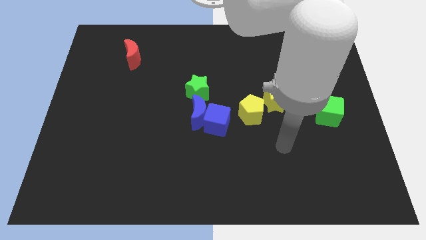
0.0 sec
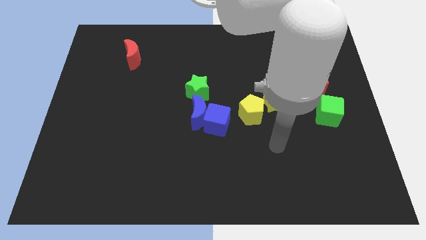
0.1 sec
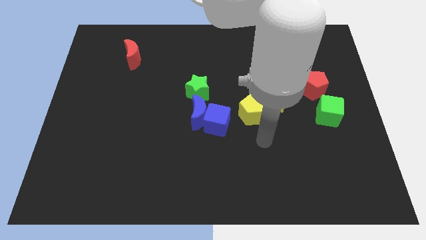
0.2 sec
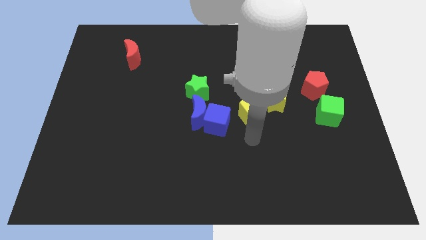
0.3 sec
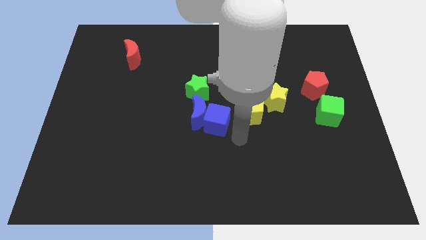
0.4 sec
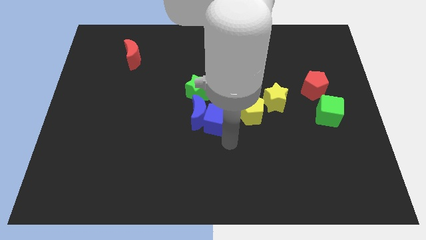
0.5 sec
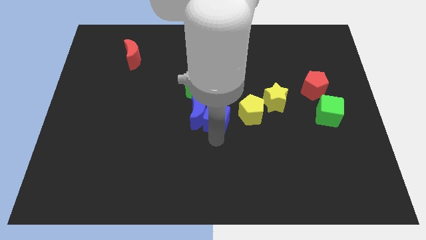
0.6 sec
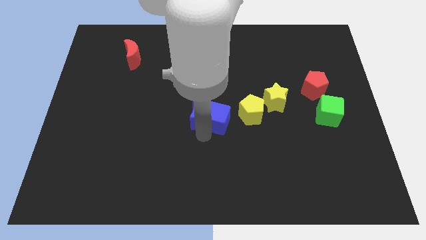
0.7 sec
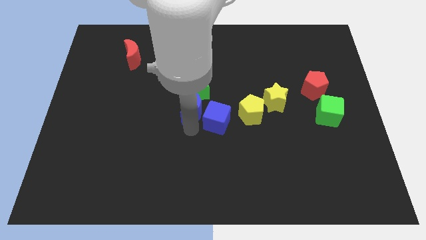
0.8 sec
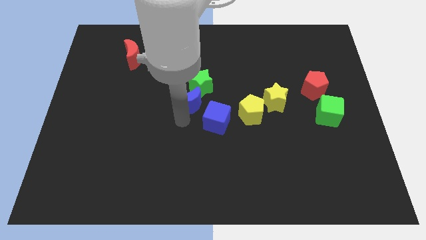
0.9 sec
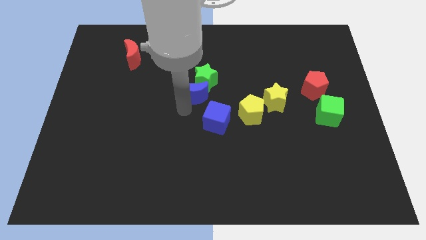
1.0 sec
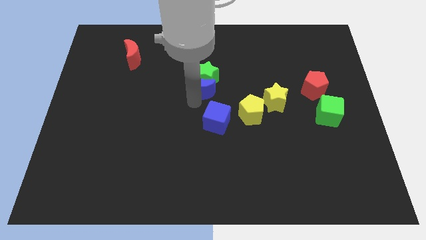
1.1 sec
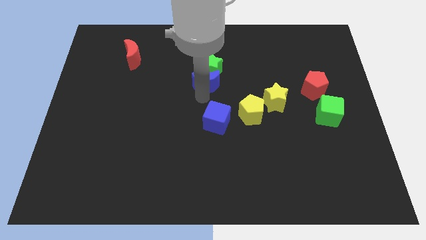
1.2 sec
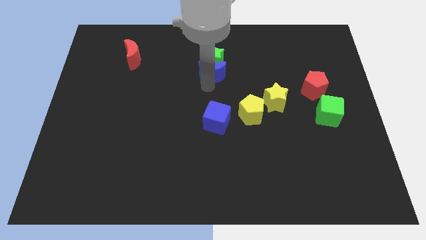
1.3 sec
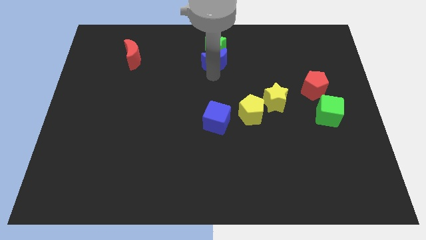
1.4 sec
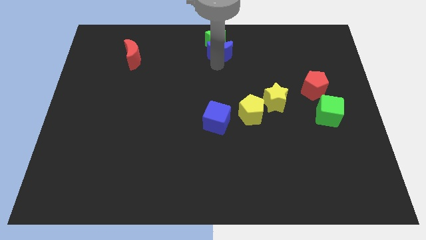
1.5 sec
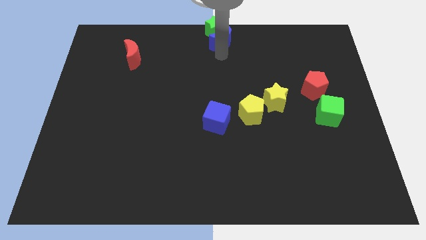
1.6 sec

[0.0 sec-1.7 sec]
move the blue moon away from the blue cube and green star

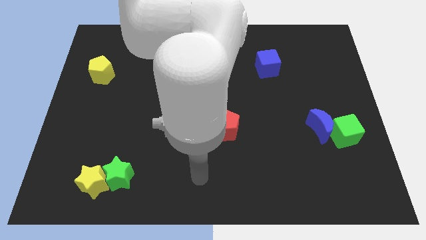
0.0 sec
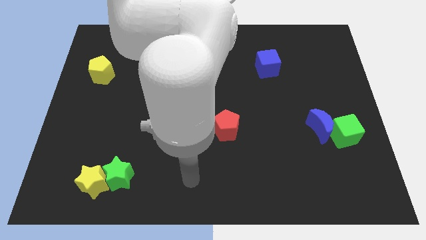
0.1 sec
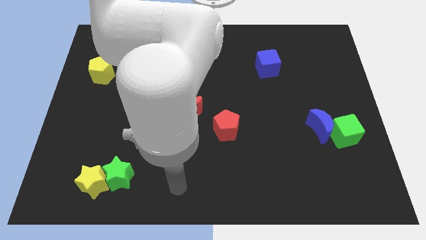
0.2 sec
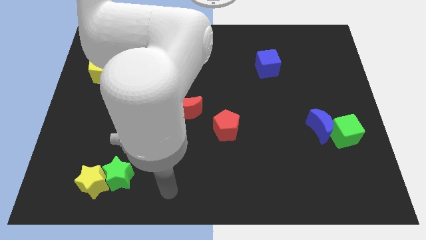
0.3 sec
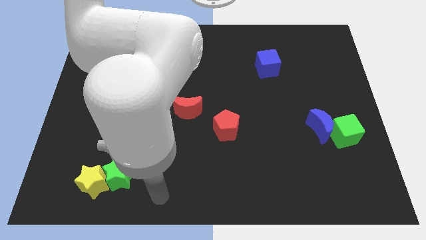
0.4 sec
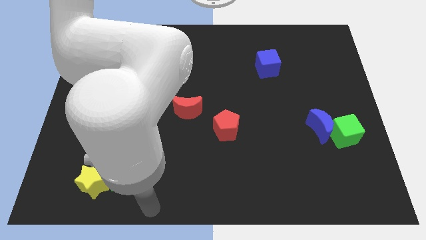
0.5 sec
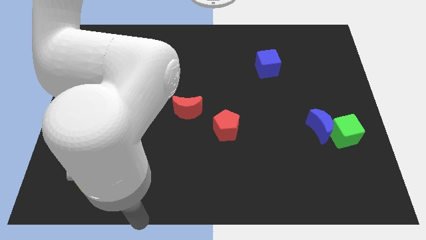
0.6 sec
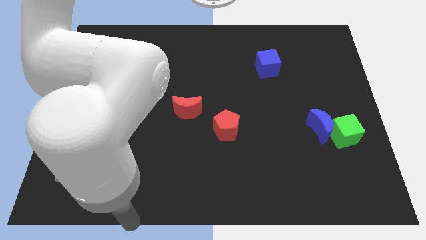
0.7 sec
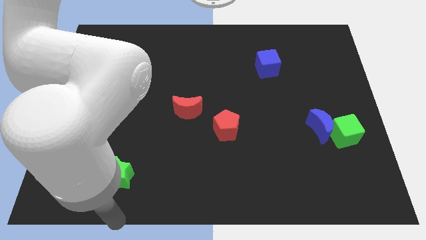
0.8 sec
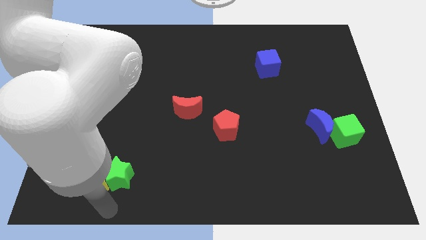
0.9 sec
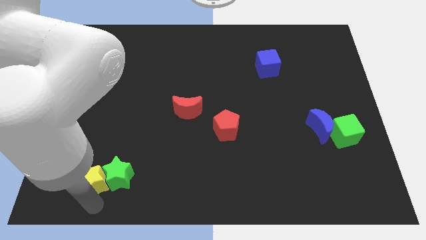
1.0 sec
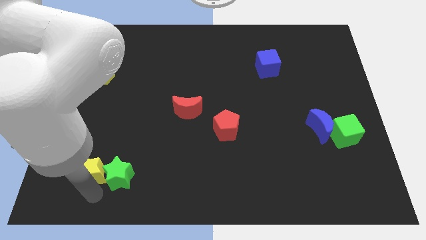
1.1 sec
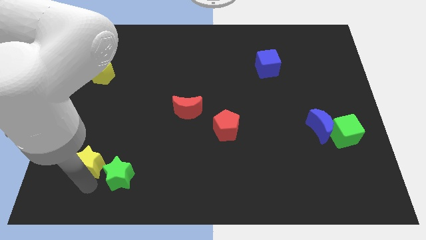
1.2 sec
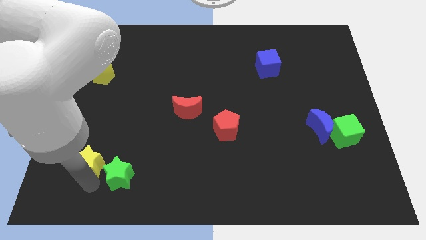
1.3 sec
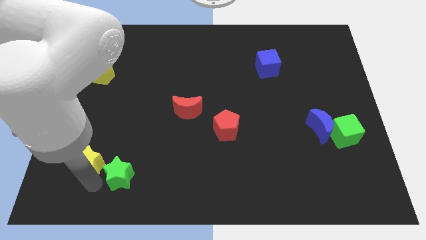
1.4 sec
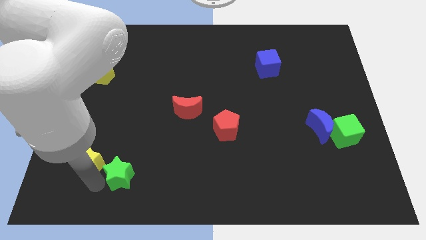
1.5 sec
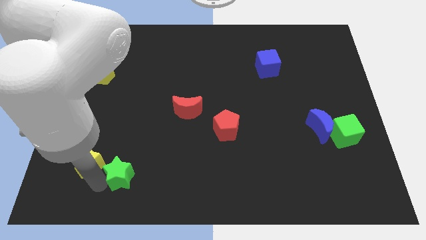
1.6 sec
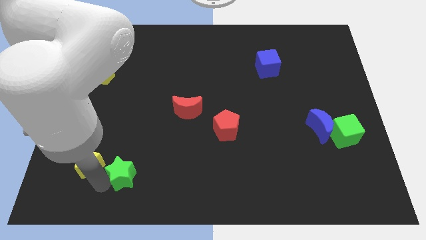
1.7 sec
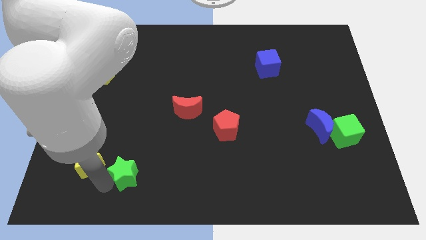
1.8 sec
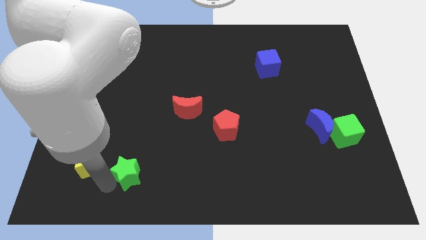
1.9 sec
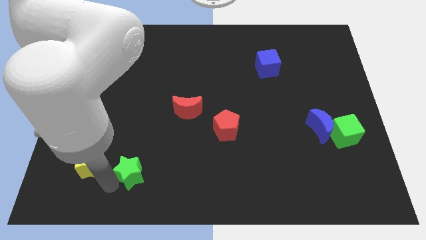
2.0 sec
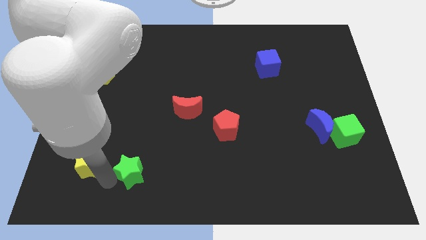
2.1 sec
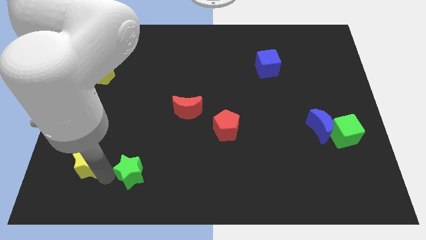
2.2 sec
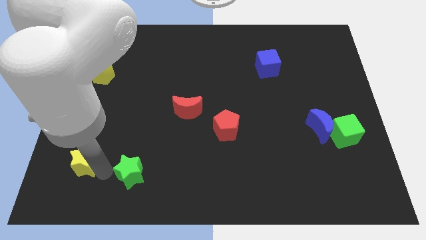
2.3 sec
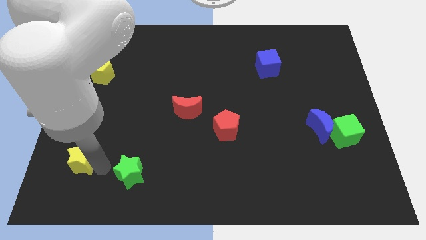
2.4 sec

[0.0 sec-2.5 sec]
move the green star away from the yellow star

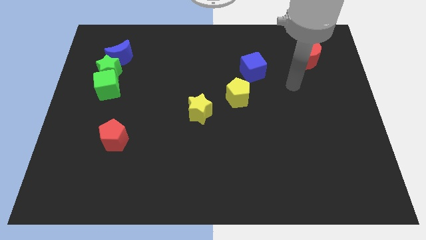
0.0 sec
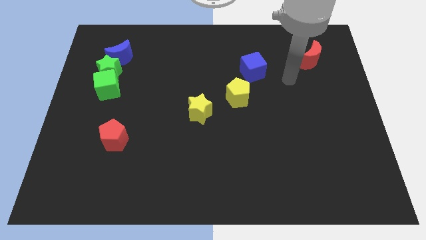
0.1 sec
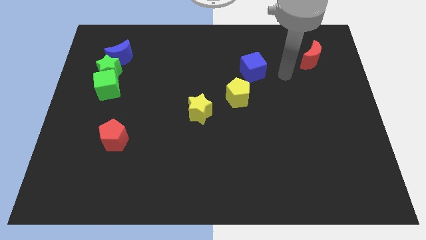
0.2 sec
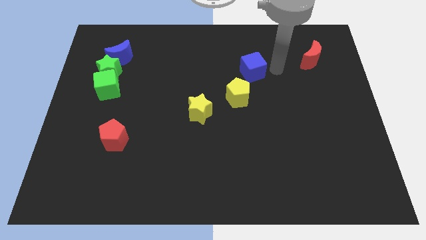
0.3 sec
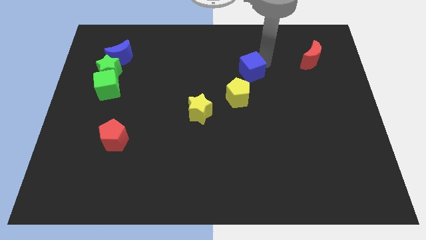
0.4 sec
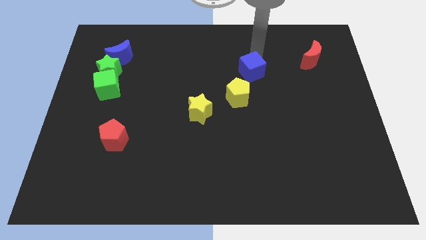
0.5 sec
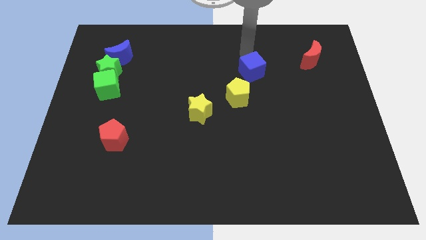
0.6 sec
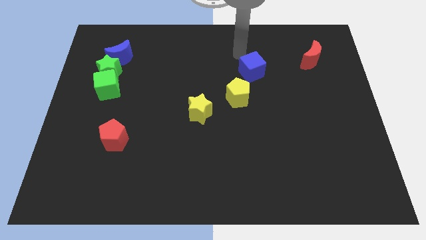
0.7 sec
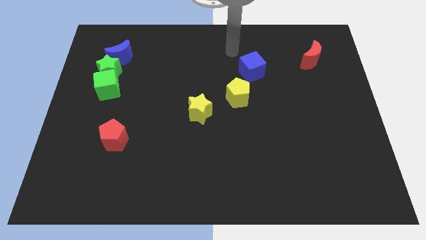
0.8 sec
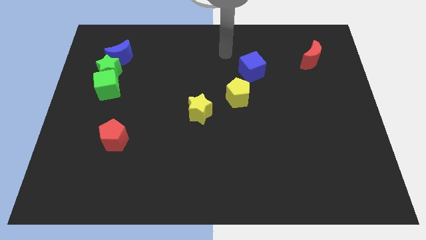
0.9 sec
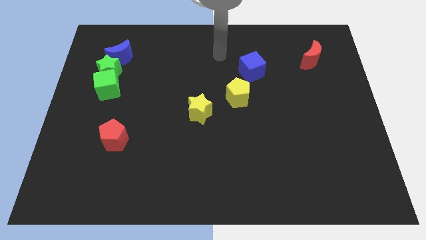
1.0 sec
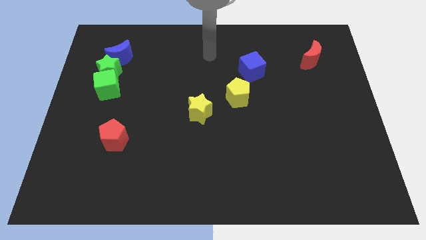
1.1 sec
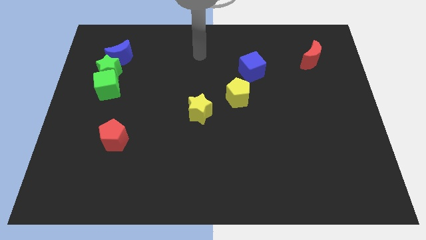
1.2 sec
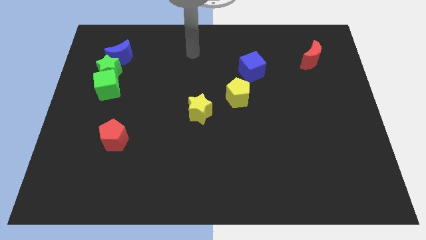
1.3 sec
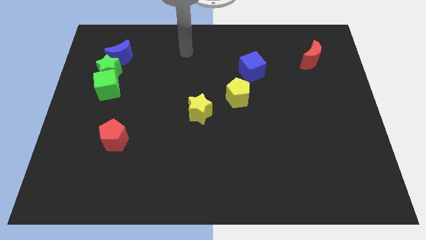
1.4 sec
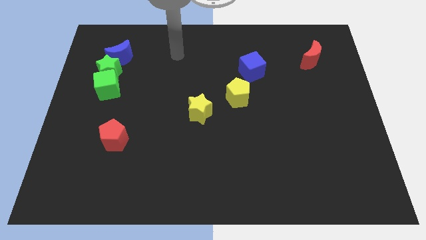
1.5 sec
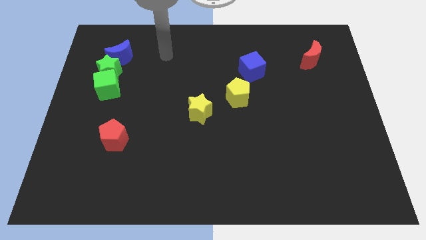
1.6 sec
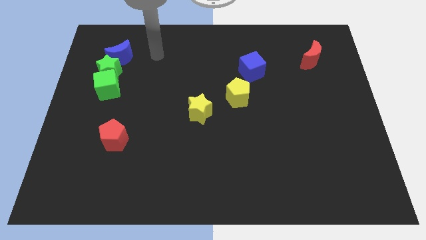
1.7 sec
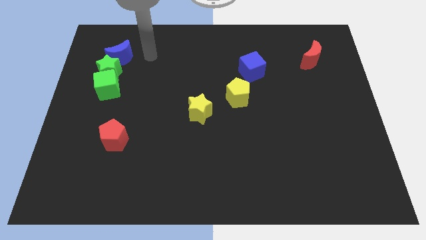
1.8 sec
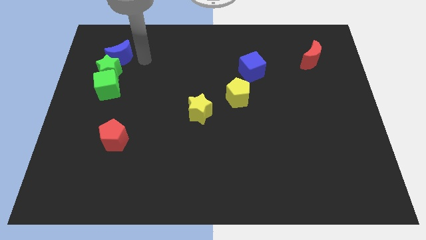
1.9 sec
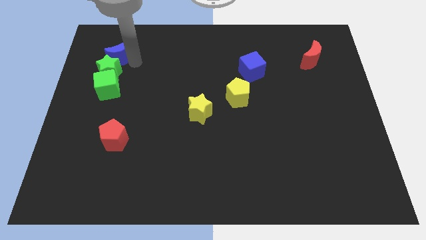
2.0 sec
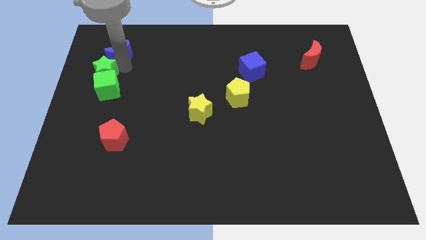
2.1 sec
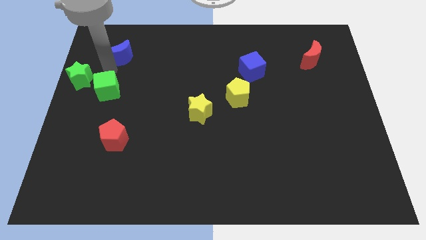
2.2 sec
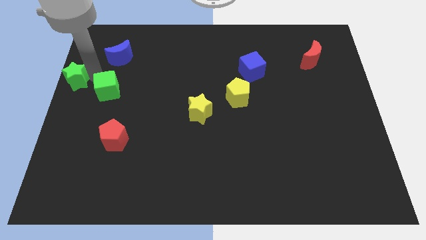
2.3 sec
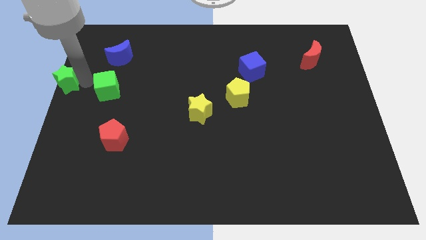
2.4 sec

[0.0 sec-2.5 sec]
separate the green cube from the green star

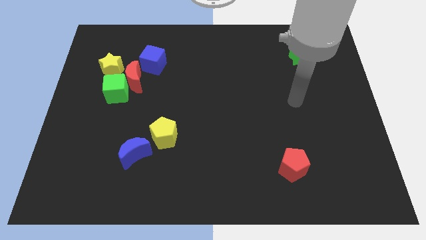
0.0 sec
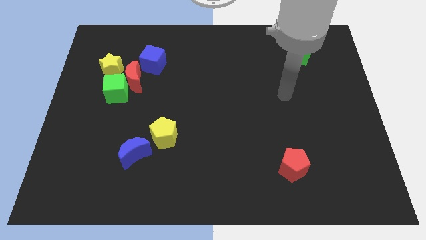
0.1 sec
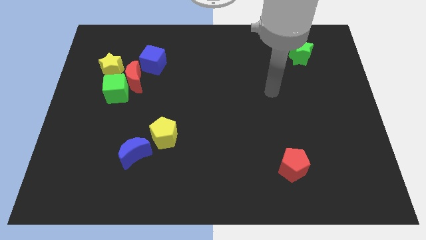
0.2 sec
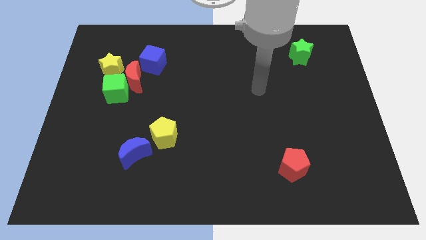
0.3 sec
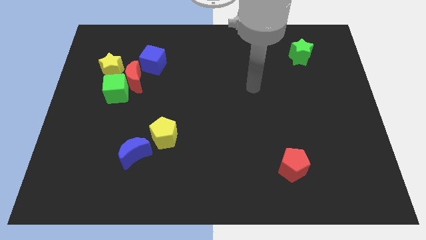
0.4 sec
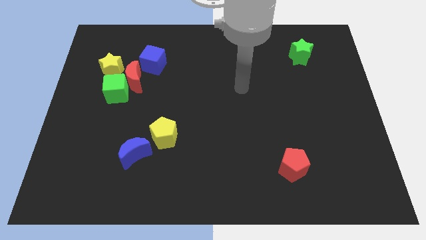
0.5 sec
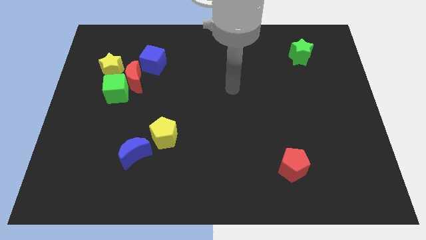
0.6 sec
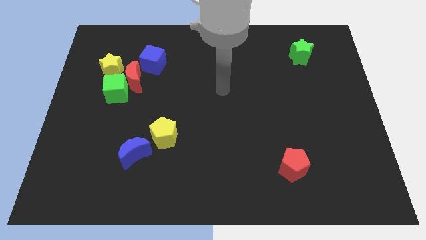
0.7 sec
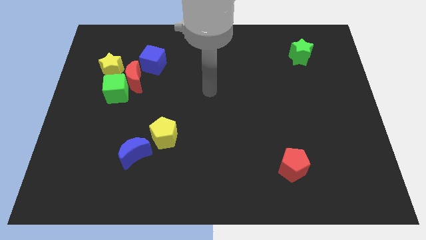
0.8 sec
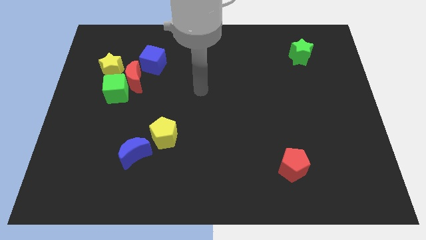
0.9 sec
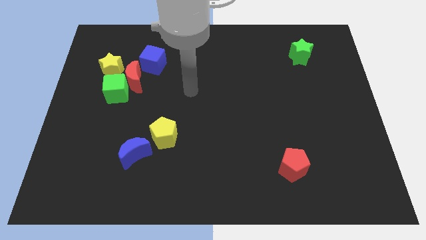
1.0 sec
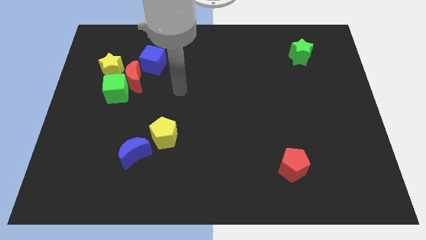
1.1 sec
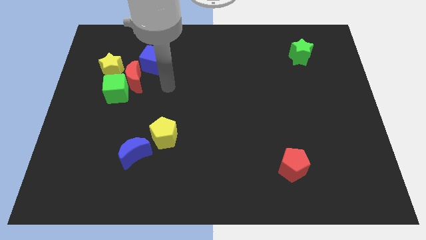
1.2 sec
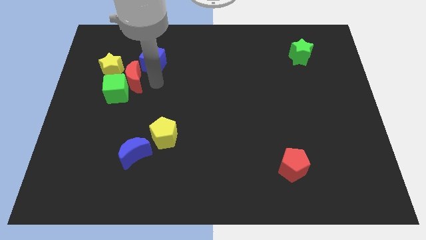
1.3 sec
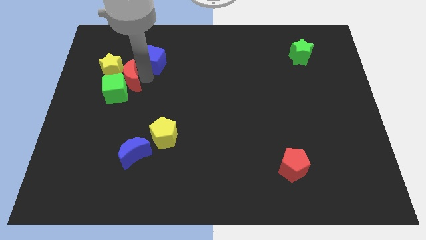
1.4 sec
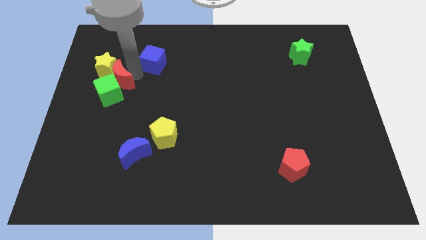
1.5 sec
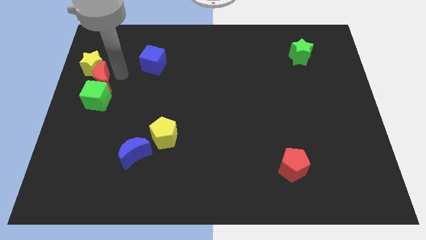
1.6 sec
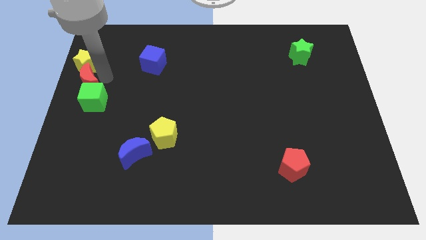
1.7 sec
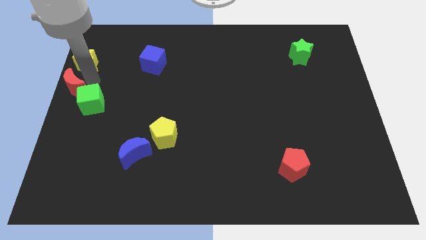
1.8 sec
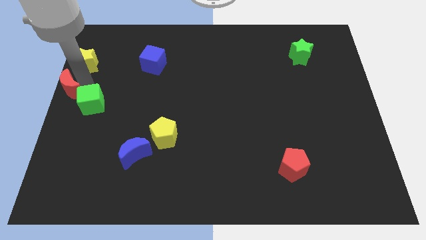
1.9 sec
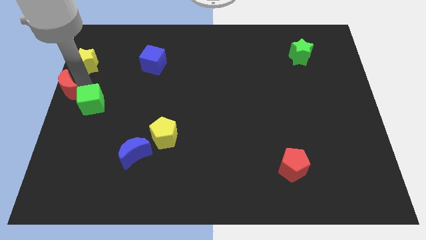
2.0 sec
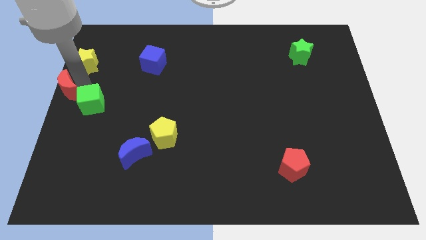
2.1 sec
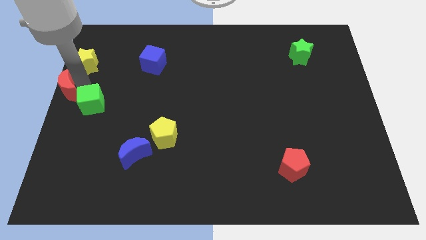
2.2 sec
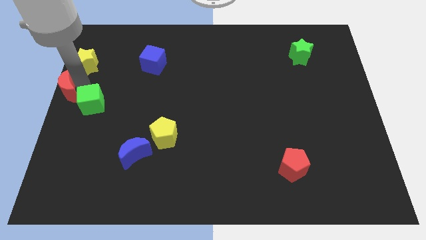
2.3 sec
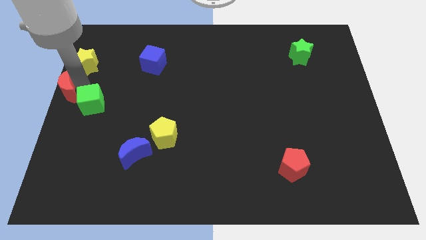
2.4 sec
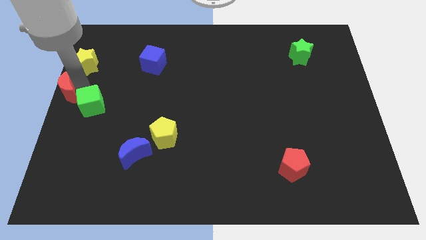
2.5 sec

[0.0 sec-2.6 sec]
move the green cube away from the red moon and yellow star
